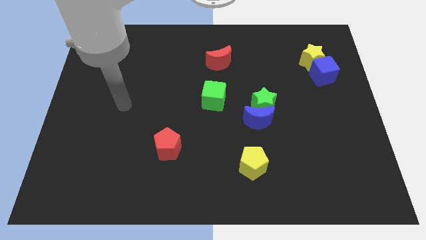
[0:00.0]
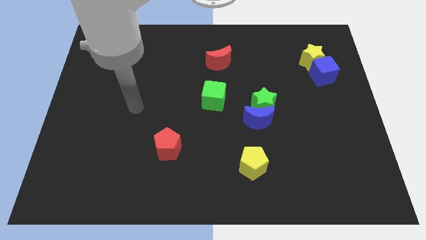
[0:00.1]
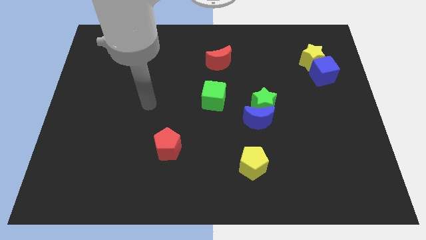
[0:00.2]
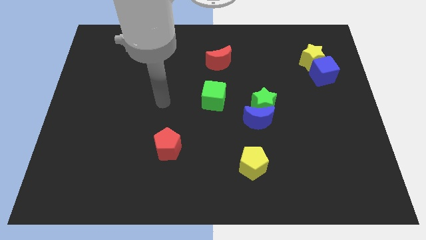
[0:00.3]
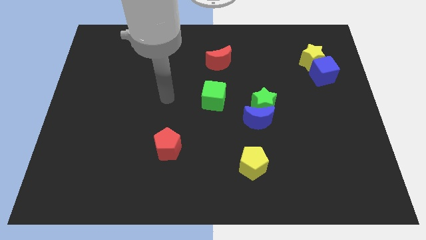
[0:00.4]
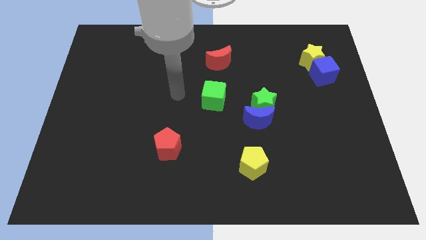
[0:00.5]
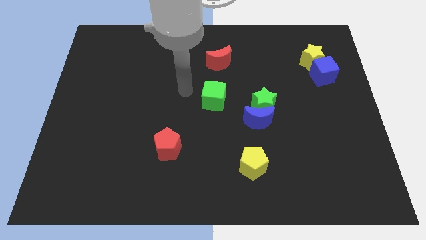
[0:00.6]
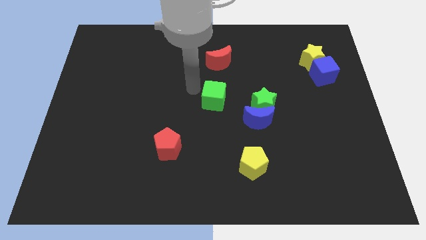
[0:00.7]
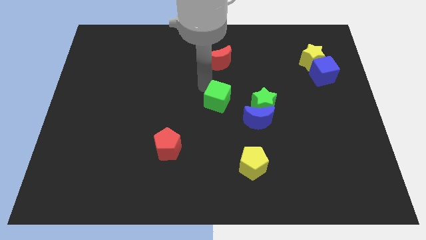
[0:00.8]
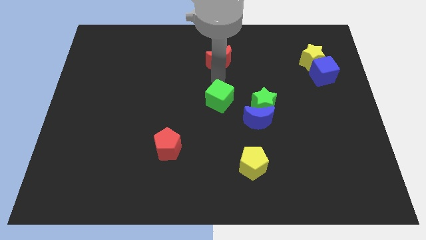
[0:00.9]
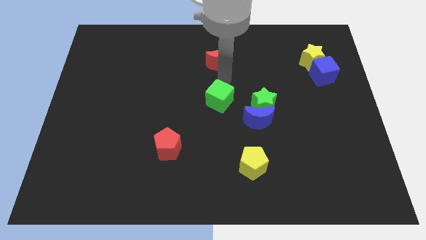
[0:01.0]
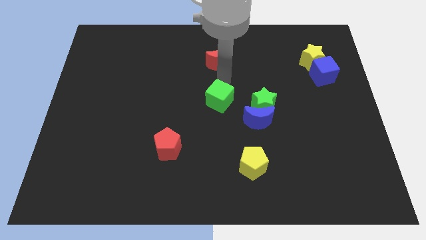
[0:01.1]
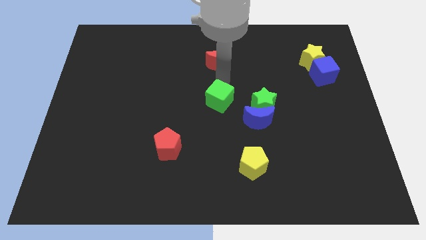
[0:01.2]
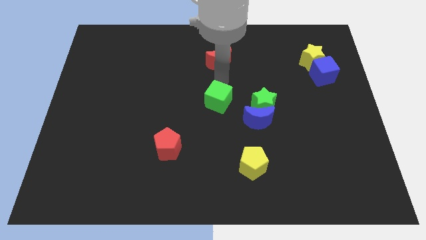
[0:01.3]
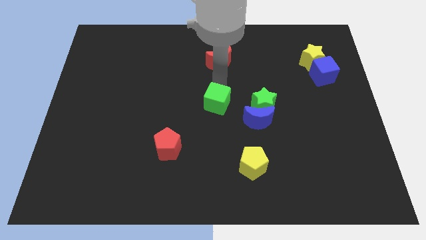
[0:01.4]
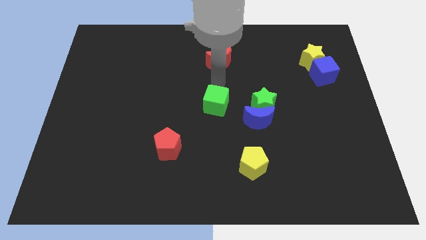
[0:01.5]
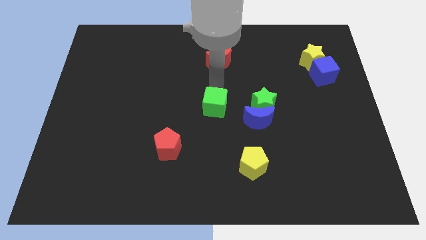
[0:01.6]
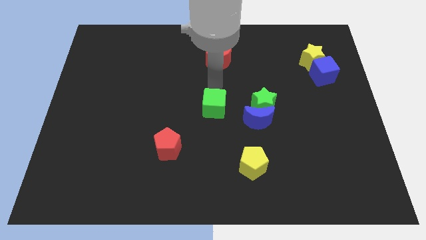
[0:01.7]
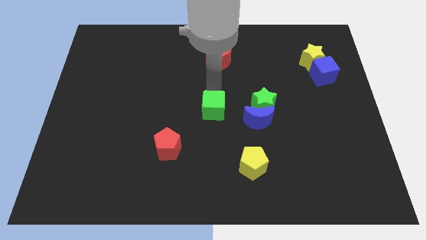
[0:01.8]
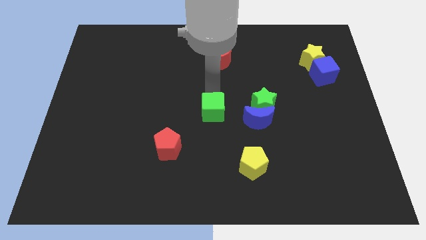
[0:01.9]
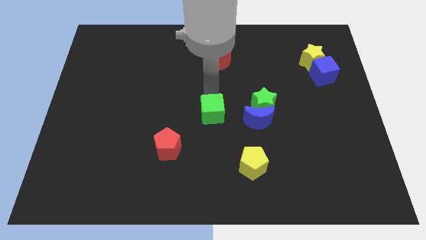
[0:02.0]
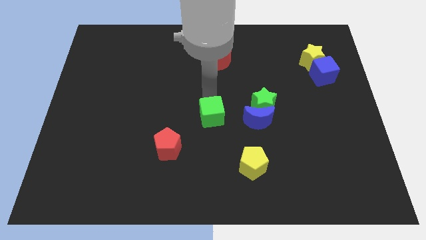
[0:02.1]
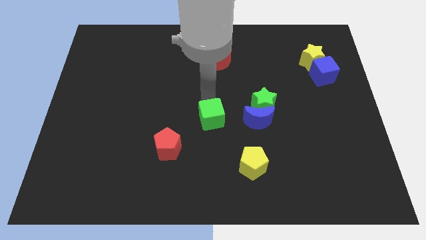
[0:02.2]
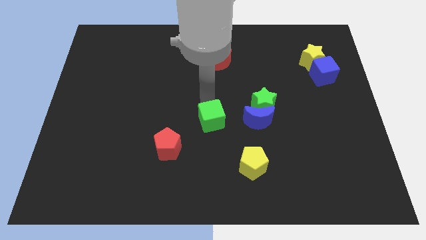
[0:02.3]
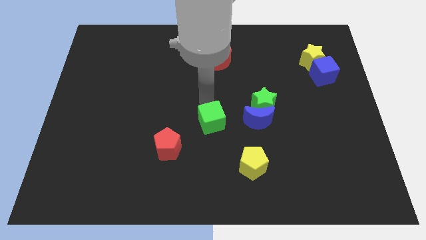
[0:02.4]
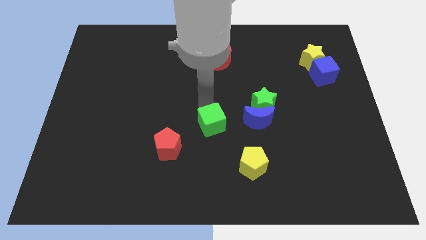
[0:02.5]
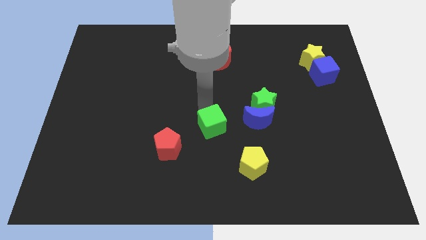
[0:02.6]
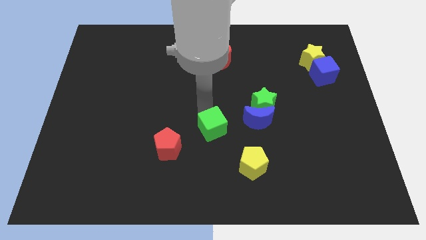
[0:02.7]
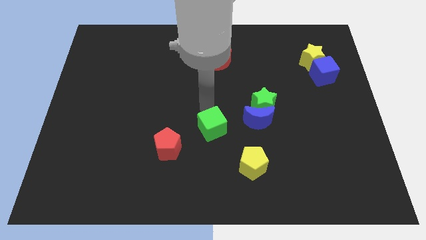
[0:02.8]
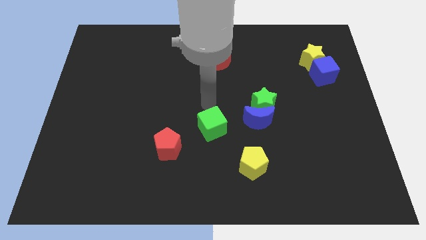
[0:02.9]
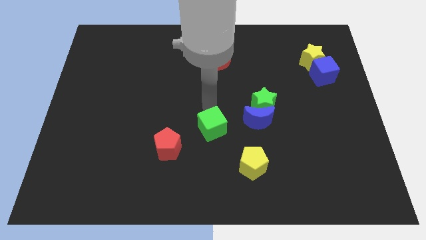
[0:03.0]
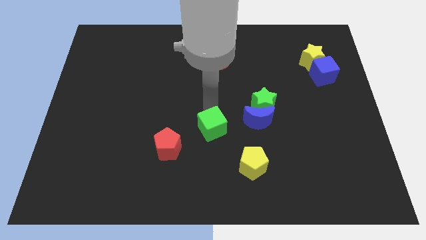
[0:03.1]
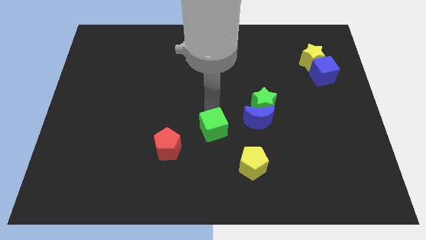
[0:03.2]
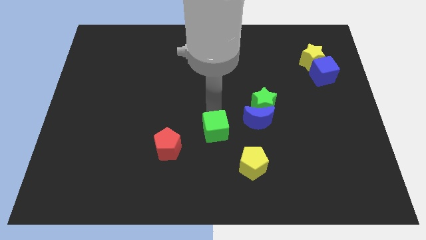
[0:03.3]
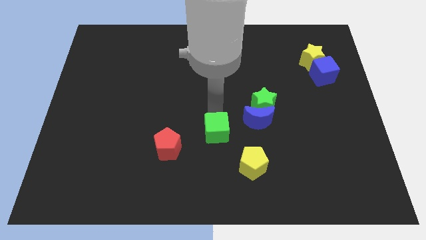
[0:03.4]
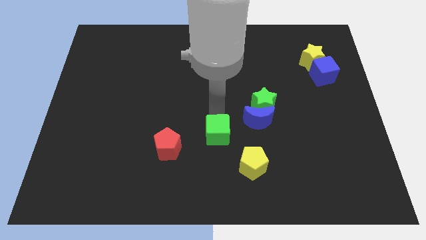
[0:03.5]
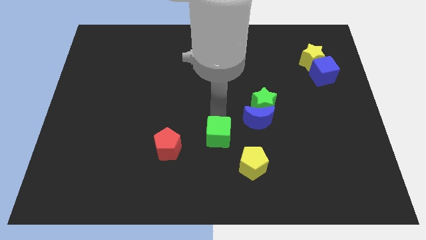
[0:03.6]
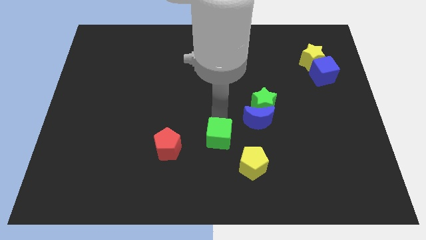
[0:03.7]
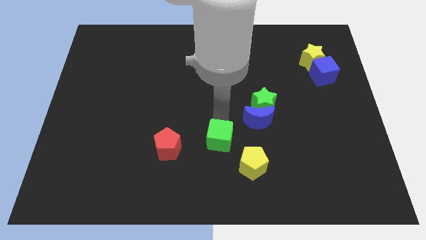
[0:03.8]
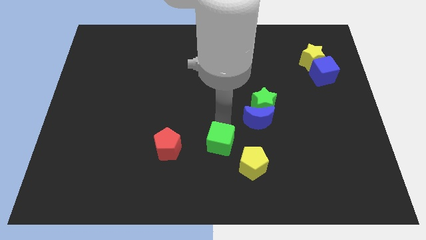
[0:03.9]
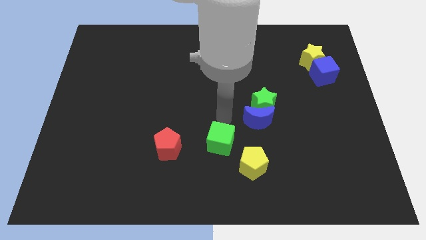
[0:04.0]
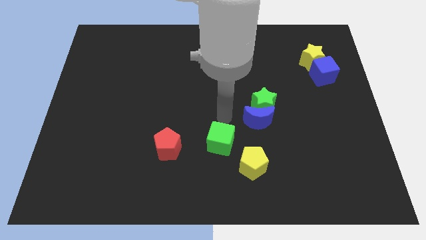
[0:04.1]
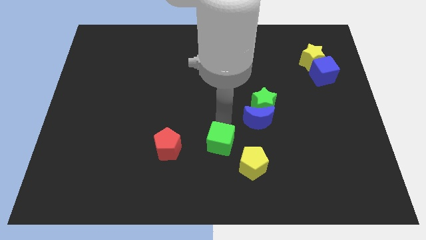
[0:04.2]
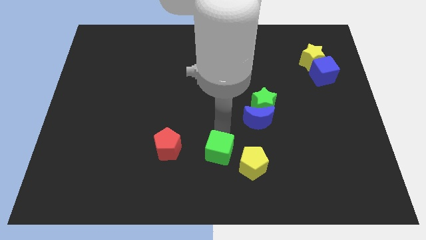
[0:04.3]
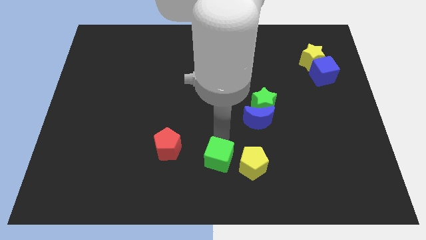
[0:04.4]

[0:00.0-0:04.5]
move the green cube to the bottom side

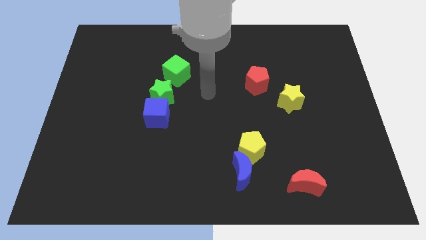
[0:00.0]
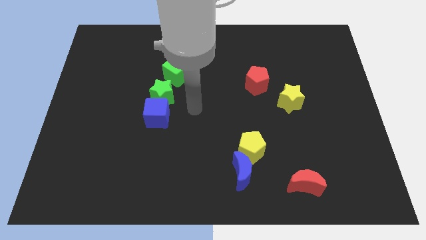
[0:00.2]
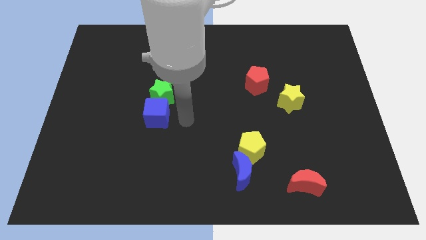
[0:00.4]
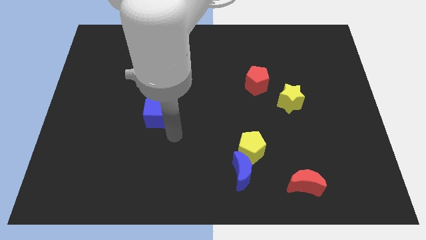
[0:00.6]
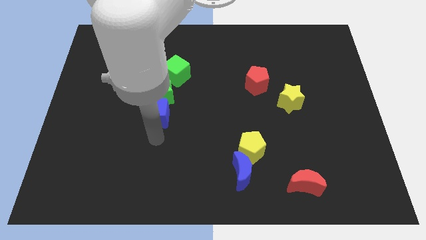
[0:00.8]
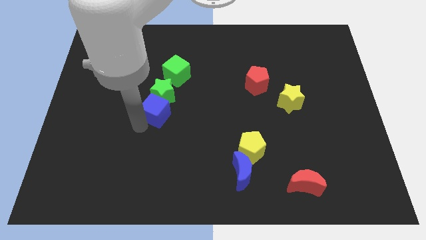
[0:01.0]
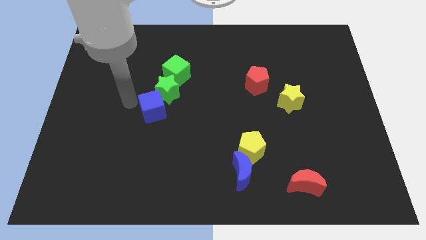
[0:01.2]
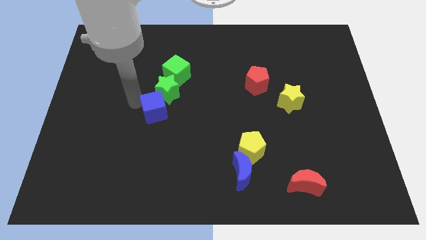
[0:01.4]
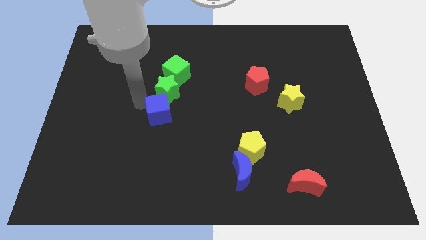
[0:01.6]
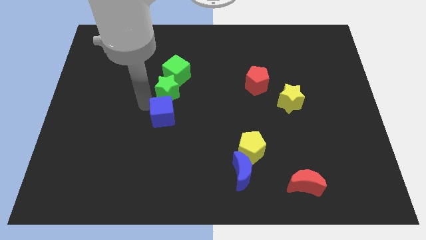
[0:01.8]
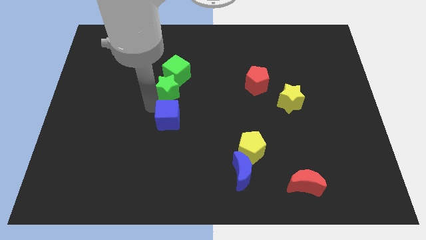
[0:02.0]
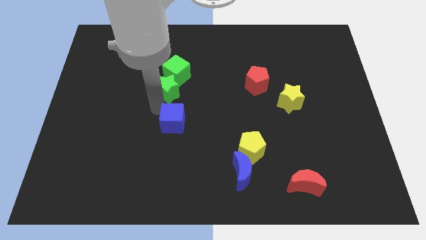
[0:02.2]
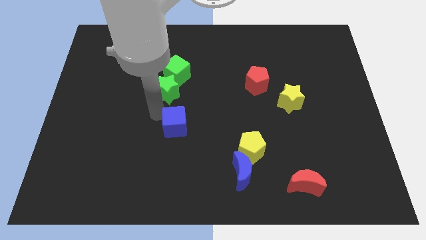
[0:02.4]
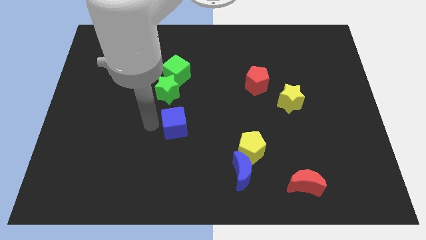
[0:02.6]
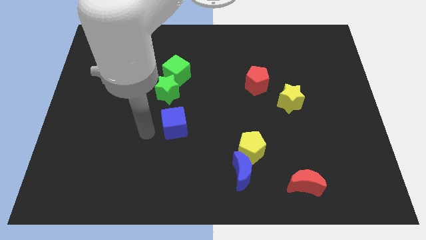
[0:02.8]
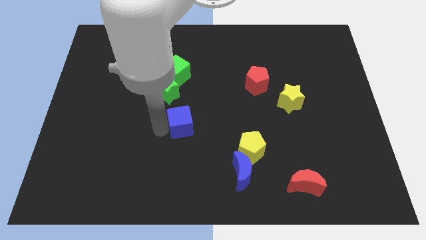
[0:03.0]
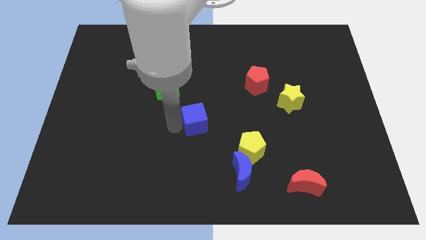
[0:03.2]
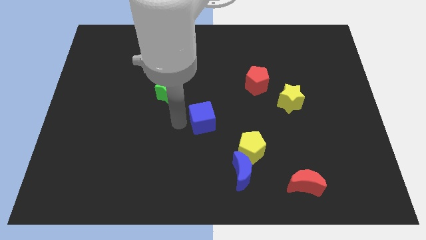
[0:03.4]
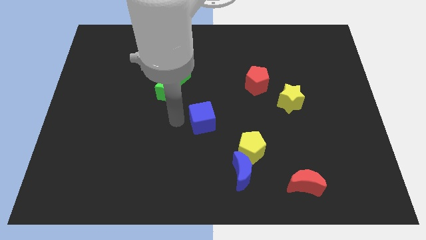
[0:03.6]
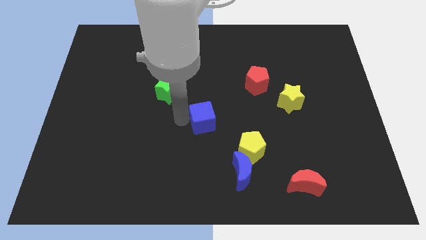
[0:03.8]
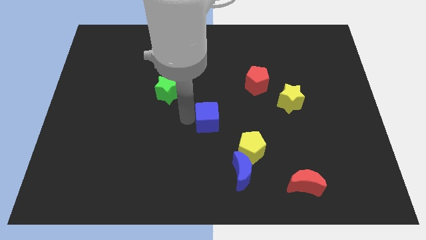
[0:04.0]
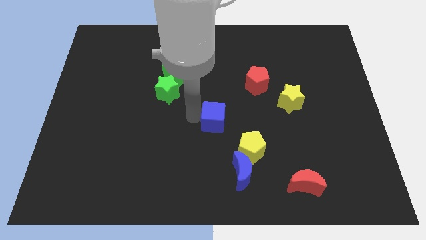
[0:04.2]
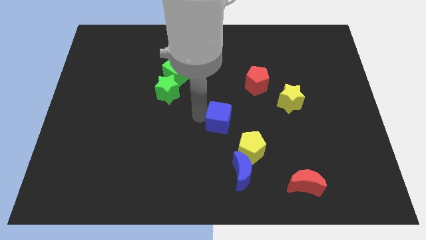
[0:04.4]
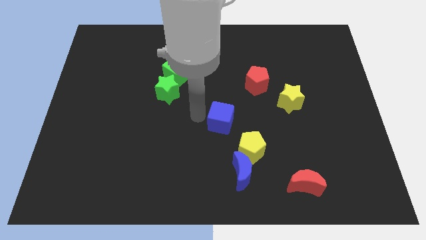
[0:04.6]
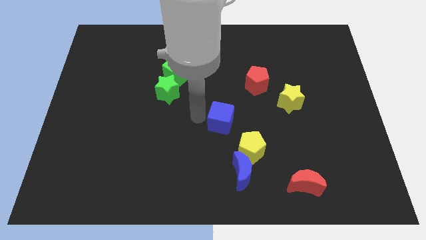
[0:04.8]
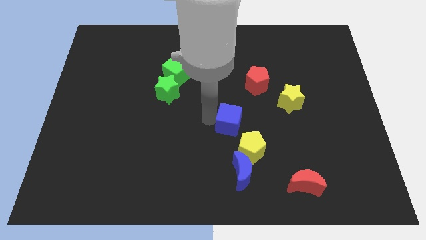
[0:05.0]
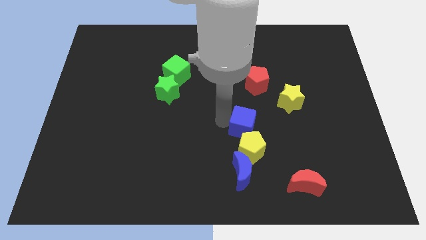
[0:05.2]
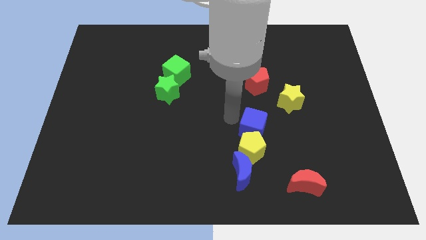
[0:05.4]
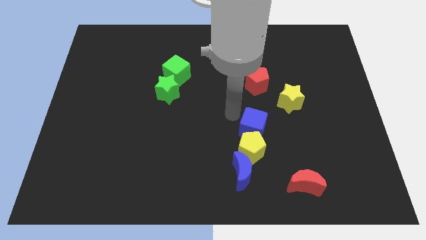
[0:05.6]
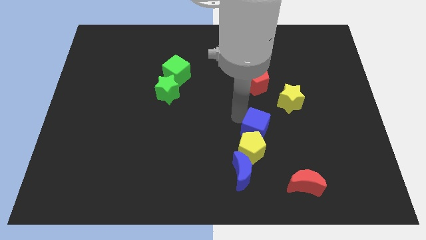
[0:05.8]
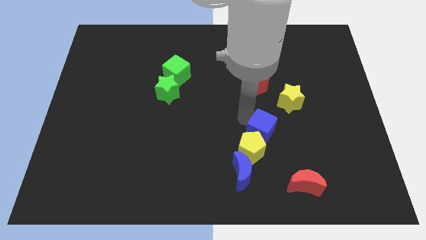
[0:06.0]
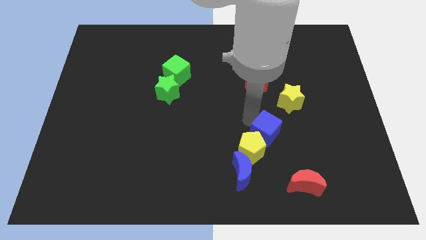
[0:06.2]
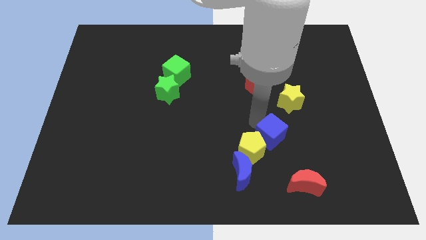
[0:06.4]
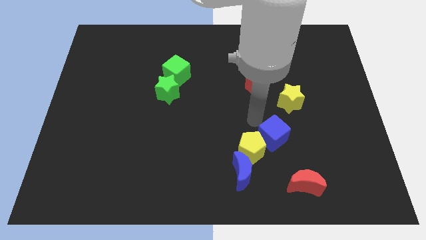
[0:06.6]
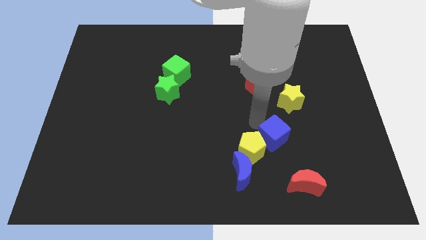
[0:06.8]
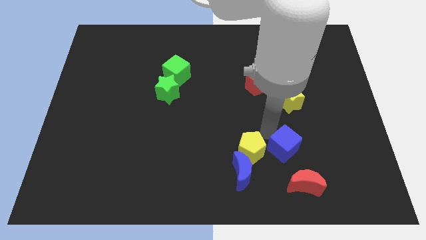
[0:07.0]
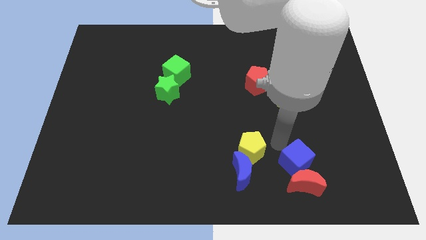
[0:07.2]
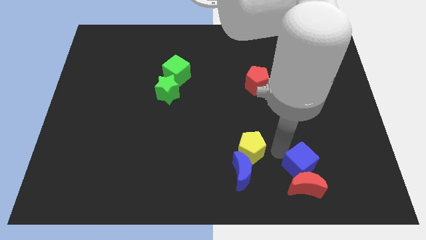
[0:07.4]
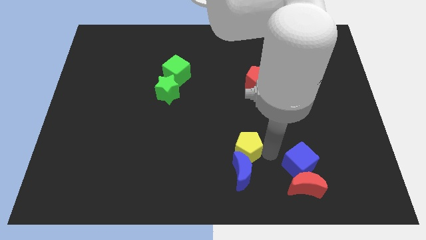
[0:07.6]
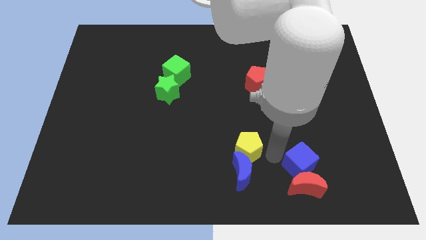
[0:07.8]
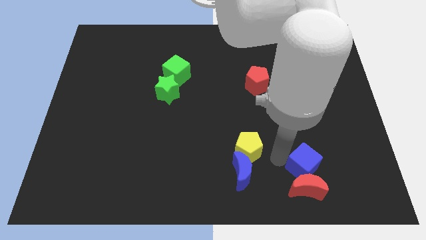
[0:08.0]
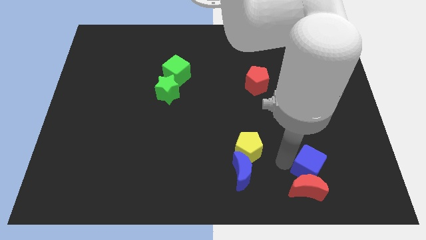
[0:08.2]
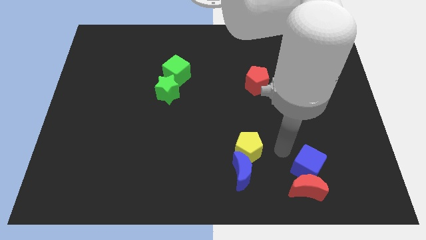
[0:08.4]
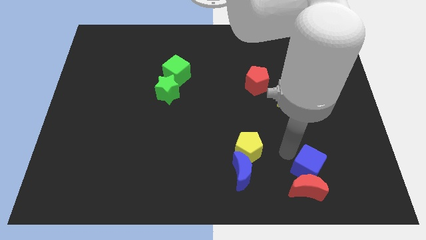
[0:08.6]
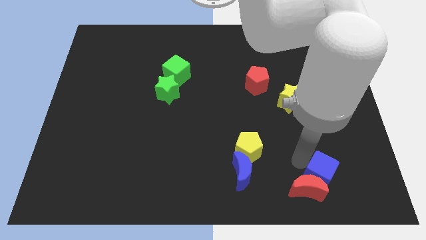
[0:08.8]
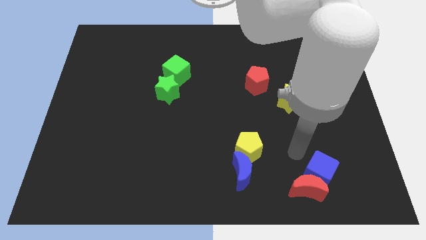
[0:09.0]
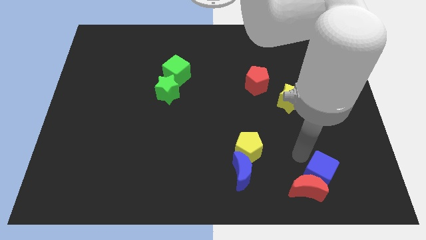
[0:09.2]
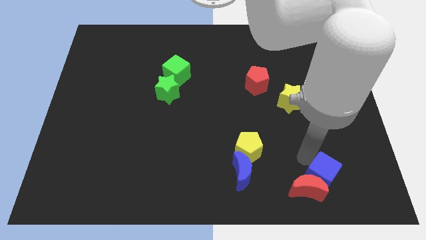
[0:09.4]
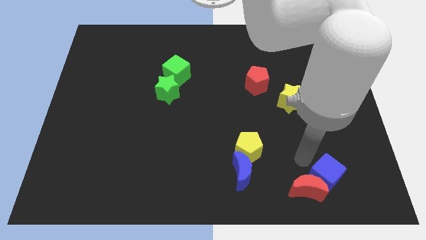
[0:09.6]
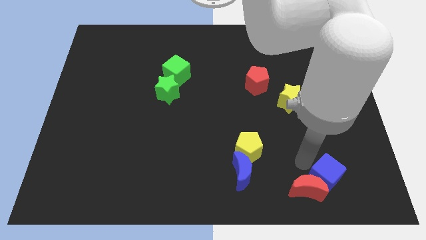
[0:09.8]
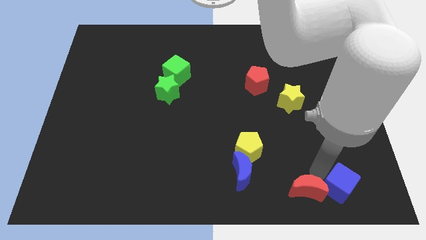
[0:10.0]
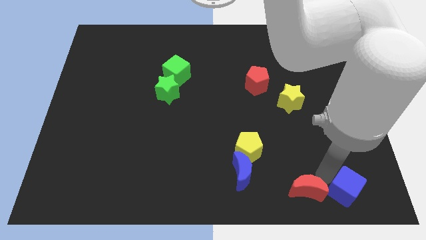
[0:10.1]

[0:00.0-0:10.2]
push the blue cube to the bottom right of the board
